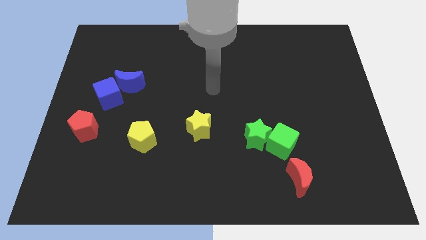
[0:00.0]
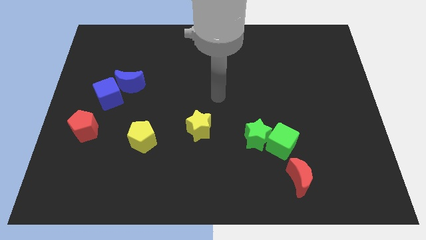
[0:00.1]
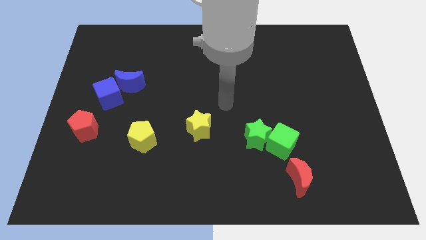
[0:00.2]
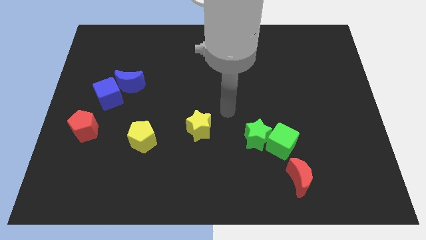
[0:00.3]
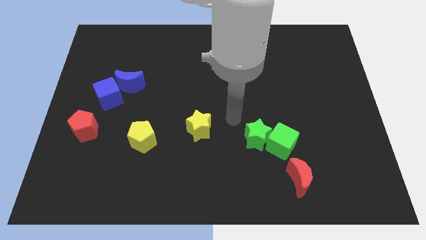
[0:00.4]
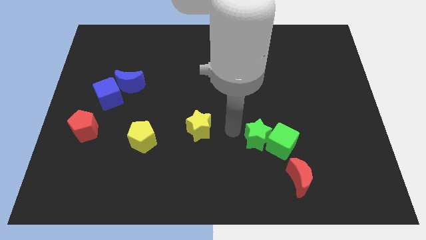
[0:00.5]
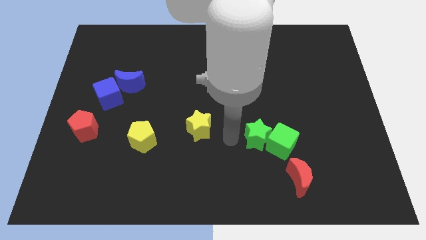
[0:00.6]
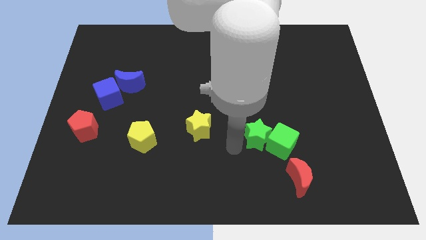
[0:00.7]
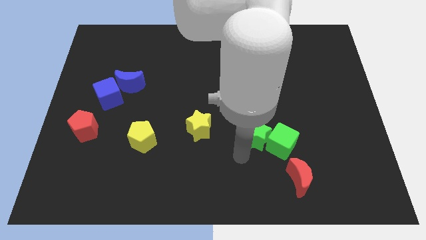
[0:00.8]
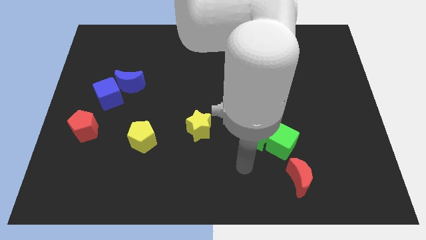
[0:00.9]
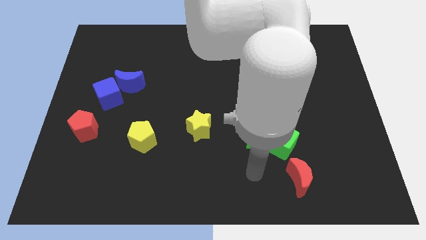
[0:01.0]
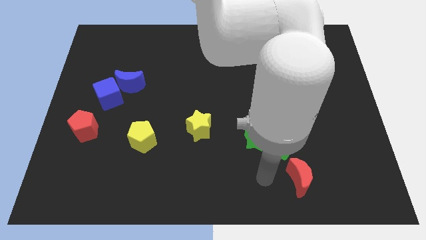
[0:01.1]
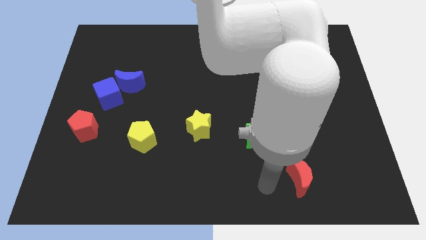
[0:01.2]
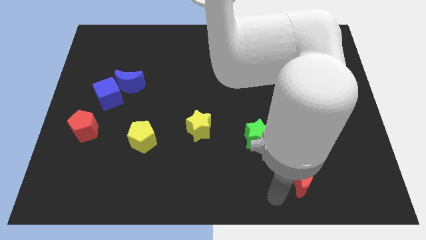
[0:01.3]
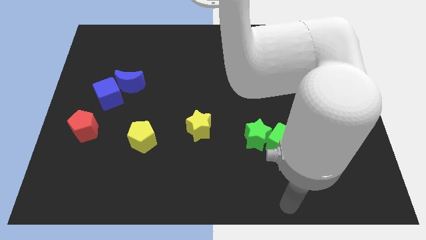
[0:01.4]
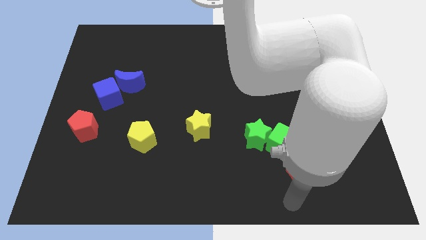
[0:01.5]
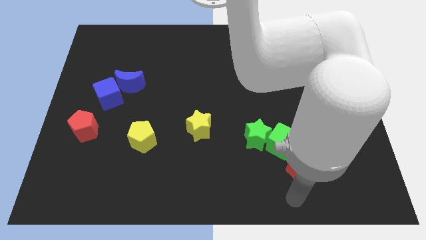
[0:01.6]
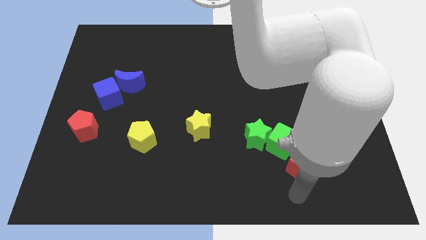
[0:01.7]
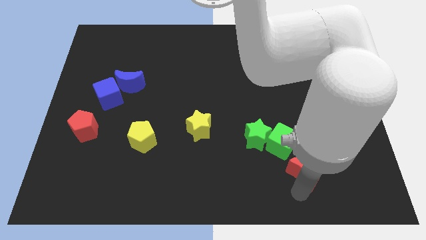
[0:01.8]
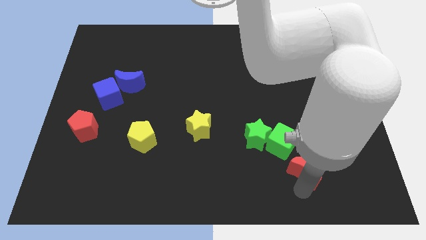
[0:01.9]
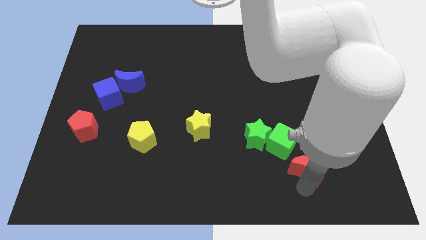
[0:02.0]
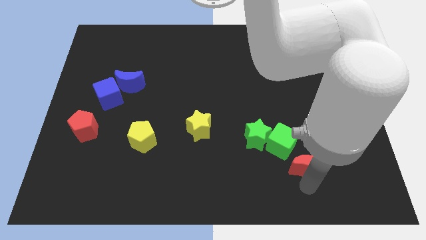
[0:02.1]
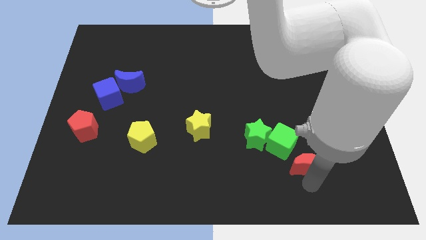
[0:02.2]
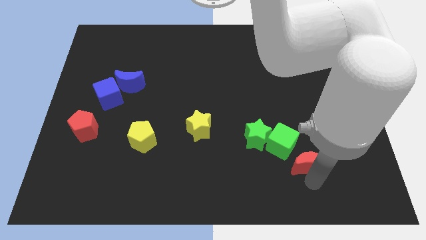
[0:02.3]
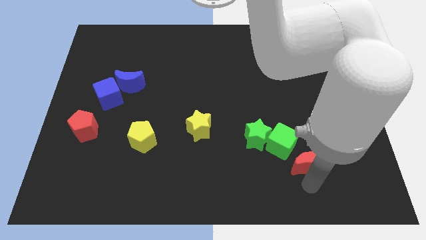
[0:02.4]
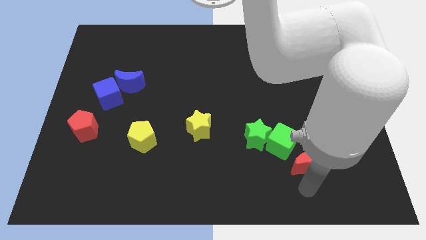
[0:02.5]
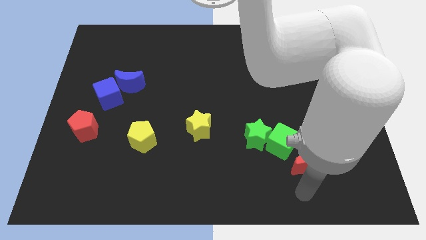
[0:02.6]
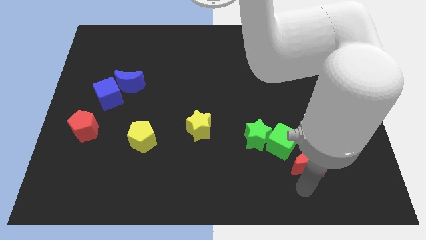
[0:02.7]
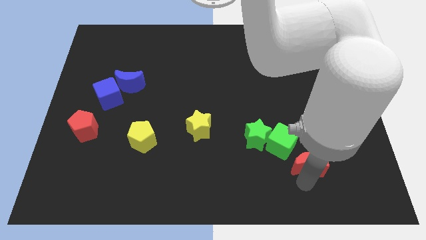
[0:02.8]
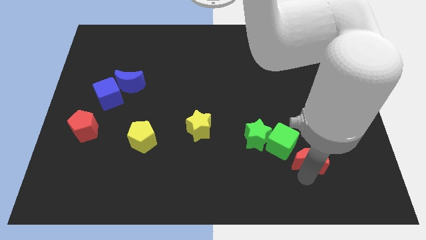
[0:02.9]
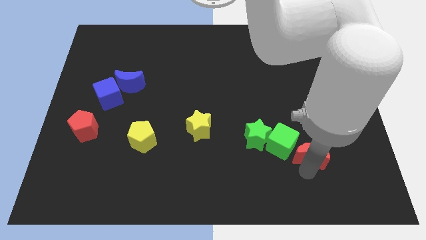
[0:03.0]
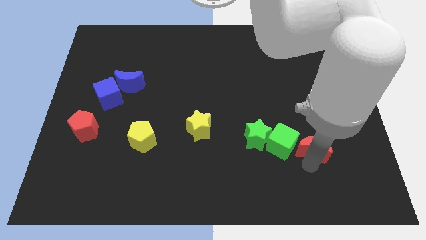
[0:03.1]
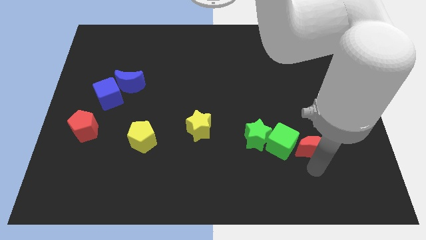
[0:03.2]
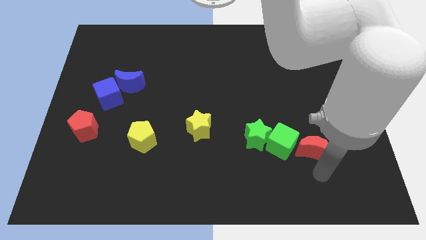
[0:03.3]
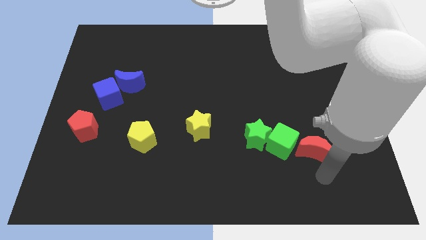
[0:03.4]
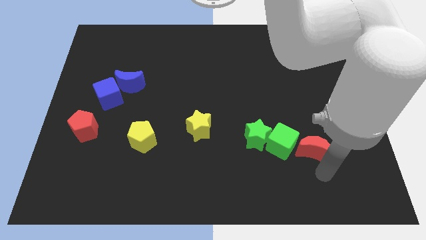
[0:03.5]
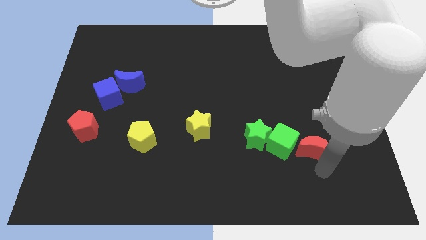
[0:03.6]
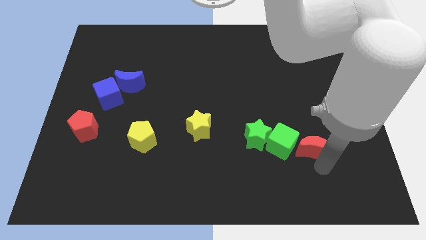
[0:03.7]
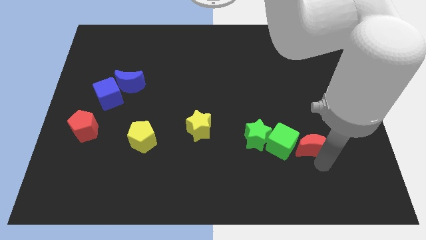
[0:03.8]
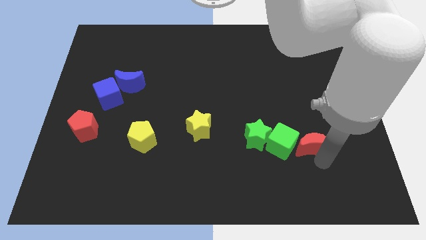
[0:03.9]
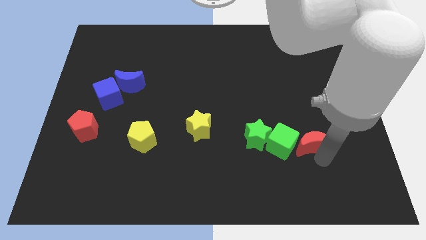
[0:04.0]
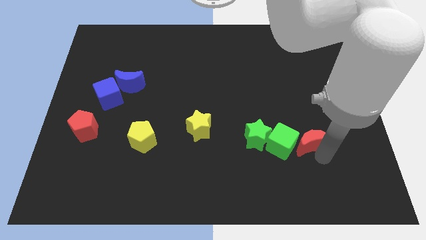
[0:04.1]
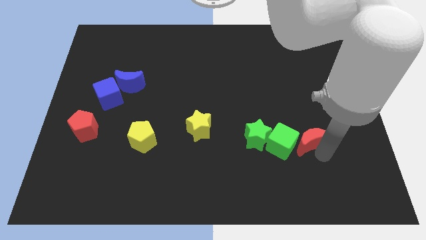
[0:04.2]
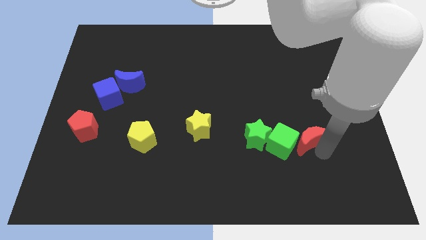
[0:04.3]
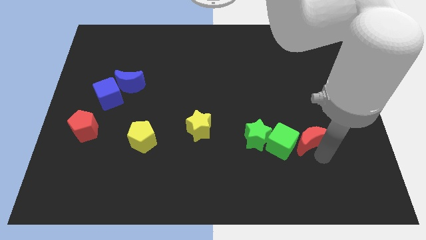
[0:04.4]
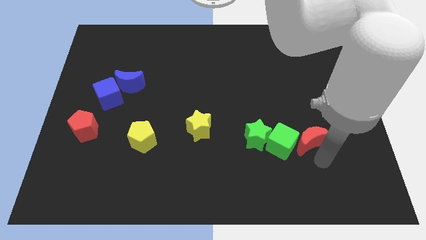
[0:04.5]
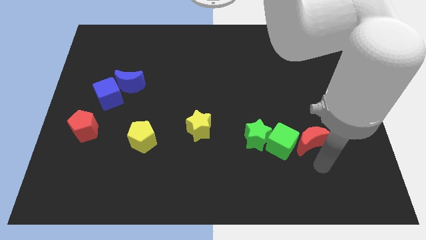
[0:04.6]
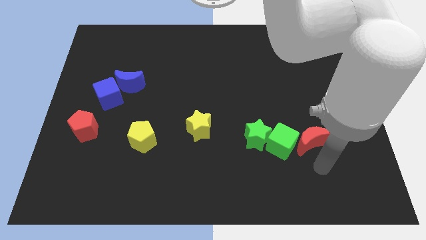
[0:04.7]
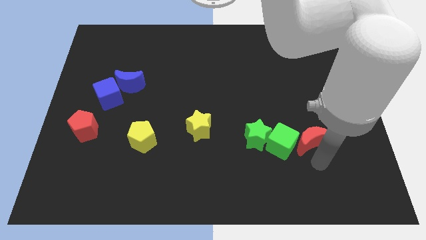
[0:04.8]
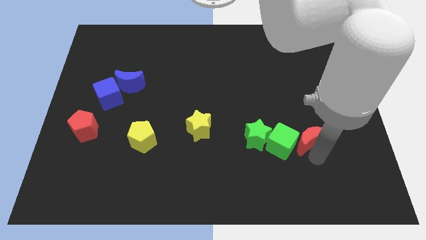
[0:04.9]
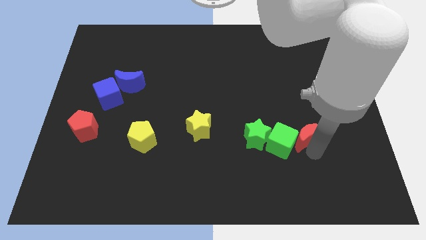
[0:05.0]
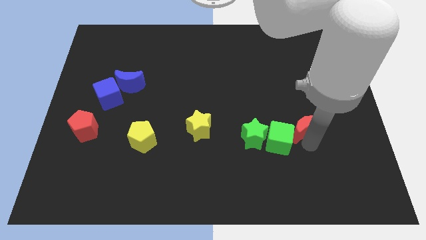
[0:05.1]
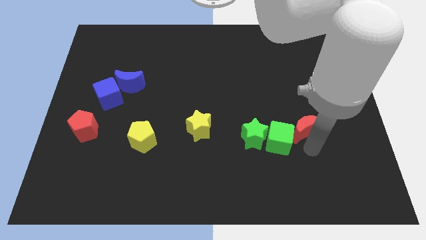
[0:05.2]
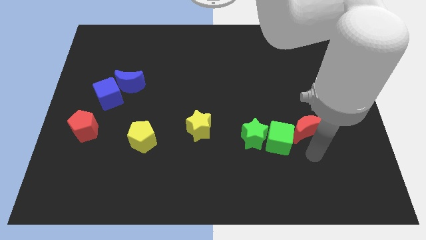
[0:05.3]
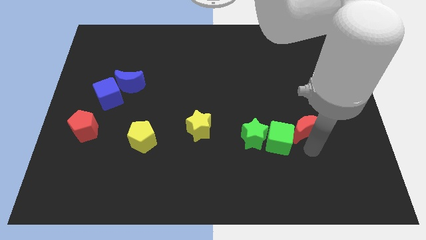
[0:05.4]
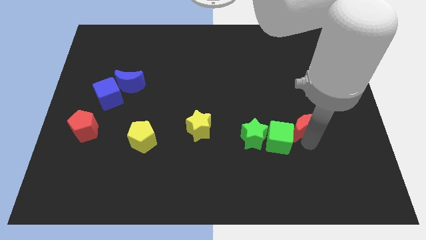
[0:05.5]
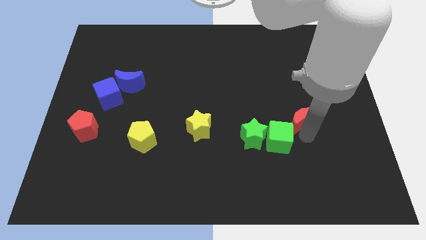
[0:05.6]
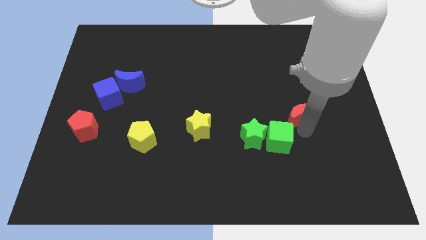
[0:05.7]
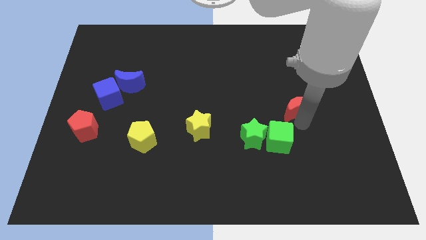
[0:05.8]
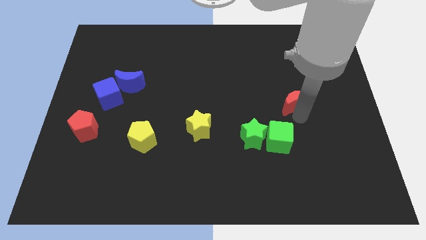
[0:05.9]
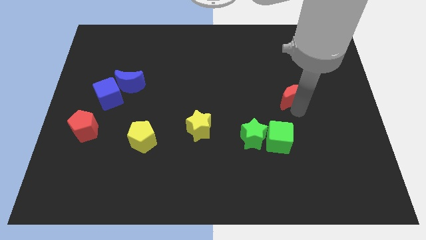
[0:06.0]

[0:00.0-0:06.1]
move the red moon upwards
